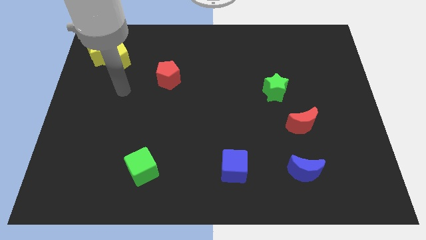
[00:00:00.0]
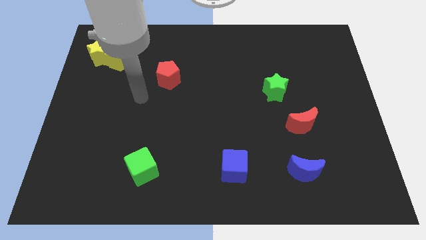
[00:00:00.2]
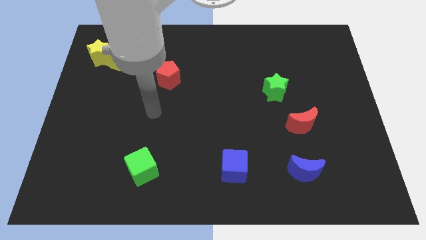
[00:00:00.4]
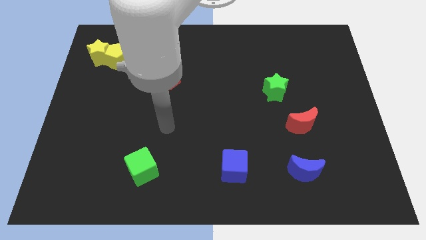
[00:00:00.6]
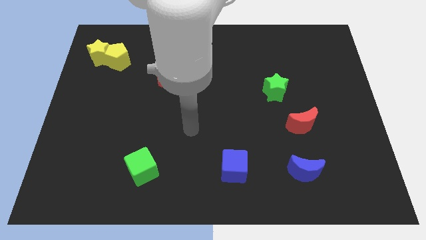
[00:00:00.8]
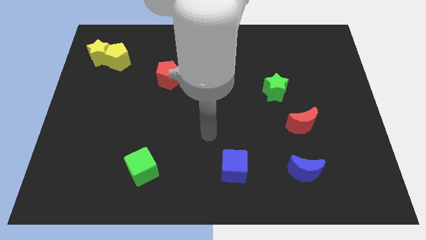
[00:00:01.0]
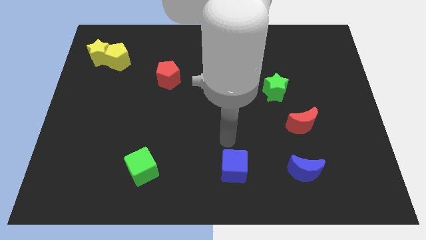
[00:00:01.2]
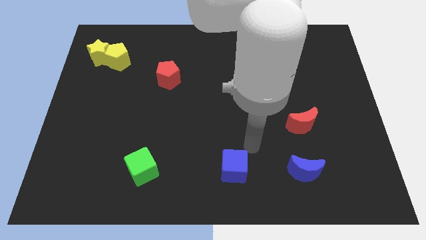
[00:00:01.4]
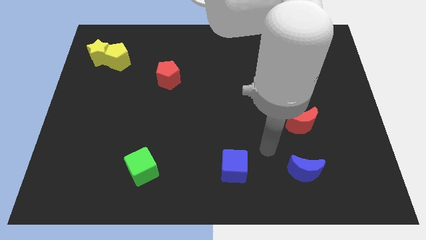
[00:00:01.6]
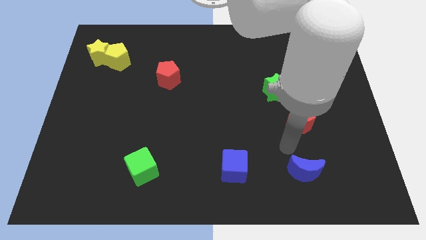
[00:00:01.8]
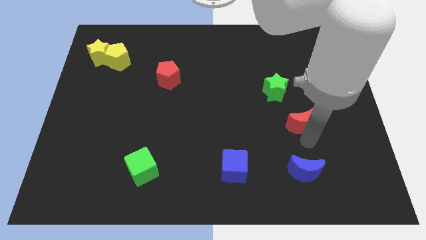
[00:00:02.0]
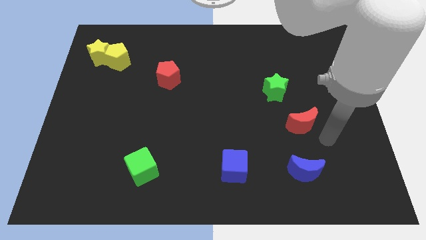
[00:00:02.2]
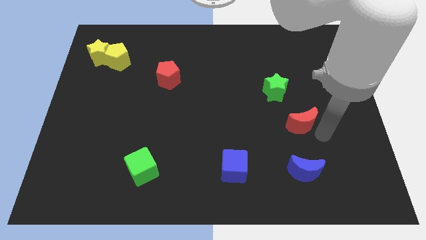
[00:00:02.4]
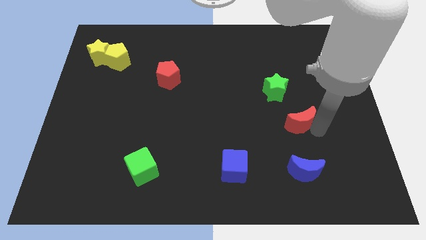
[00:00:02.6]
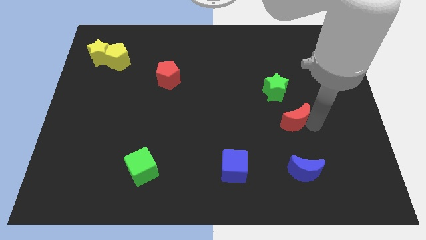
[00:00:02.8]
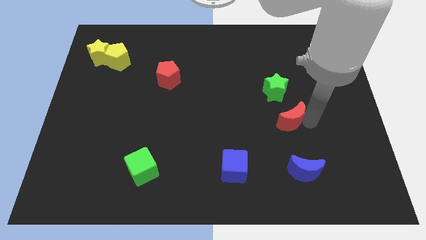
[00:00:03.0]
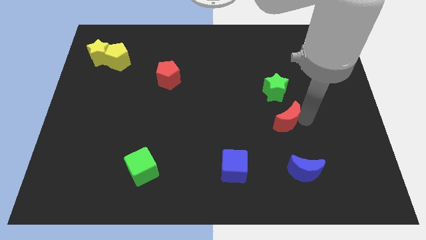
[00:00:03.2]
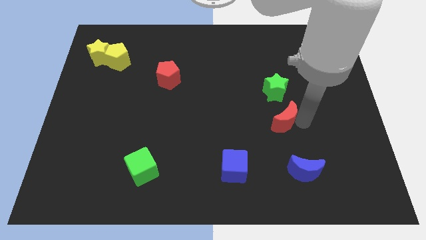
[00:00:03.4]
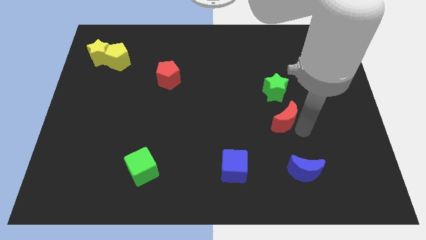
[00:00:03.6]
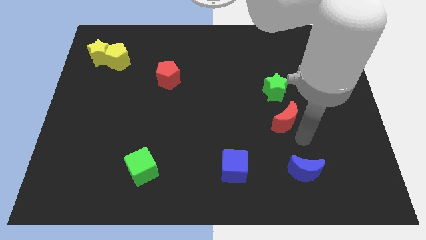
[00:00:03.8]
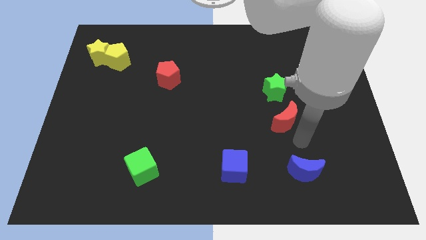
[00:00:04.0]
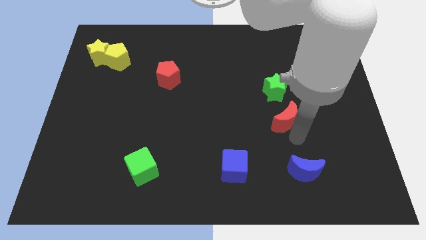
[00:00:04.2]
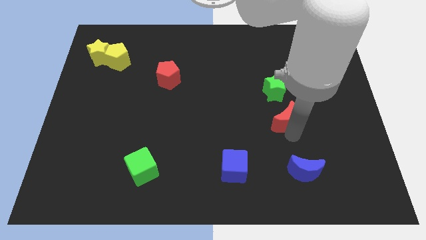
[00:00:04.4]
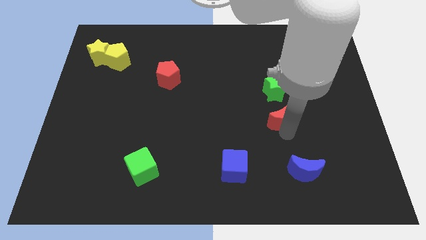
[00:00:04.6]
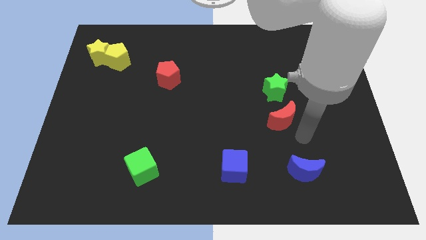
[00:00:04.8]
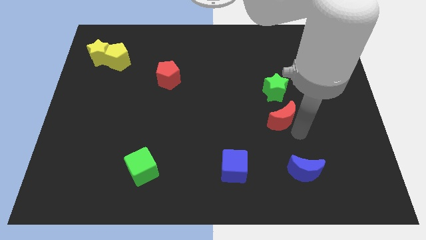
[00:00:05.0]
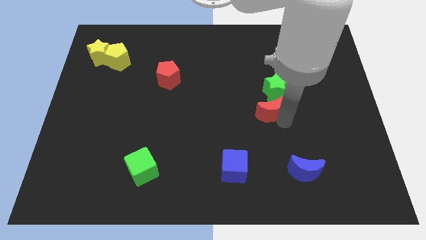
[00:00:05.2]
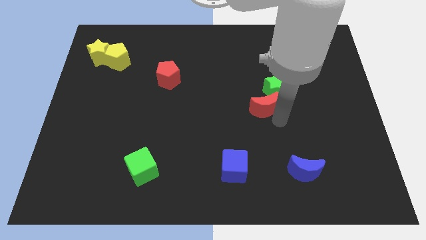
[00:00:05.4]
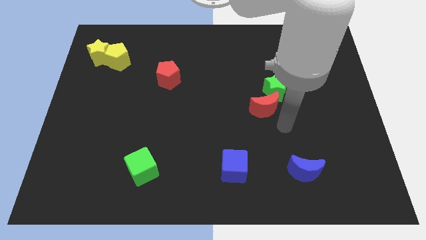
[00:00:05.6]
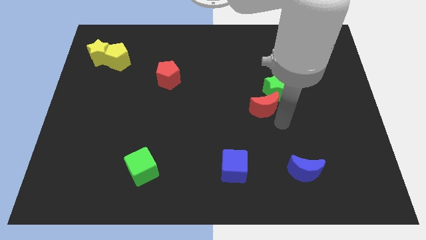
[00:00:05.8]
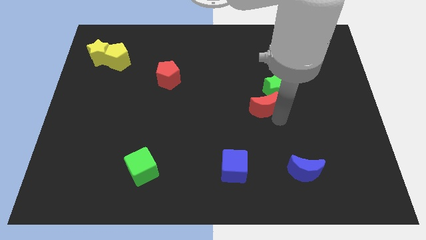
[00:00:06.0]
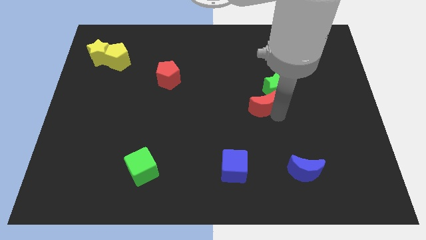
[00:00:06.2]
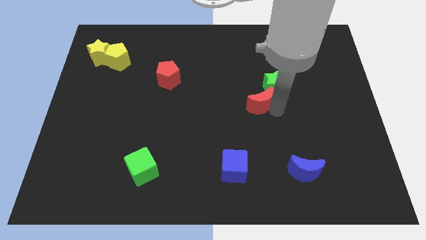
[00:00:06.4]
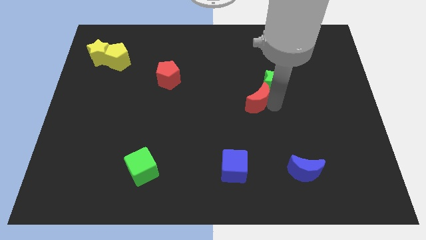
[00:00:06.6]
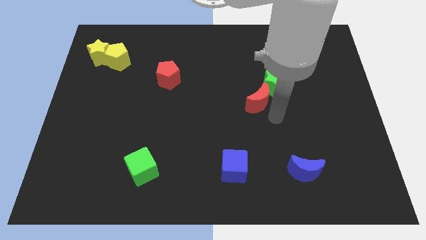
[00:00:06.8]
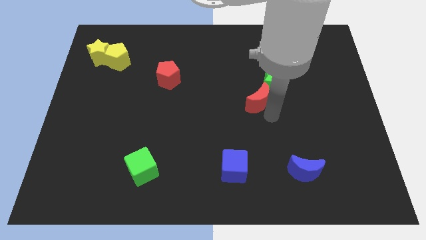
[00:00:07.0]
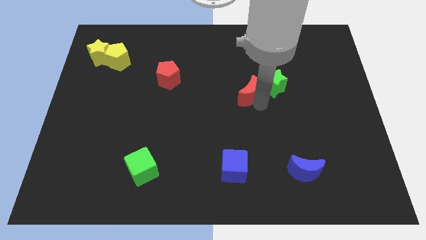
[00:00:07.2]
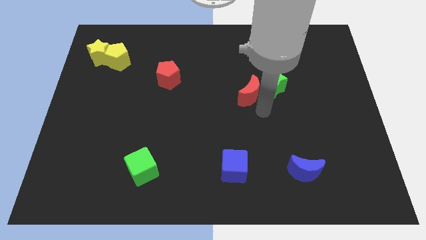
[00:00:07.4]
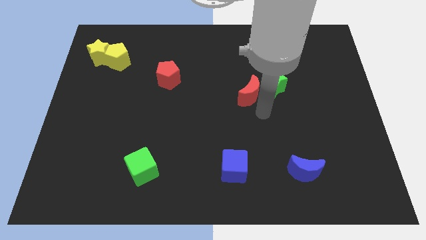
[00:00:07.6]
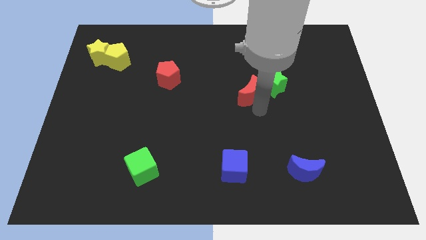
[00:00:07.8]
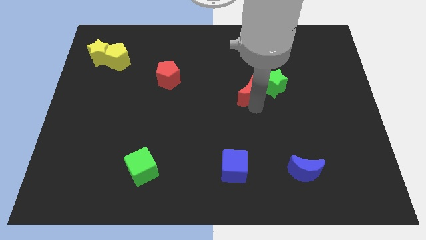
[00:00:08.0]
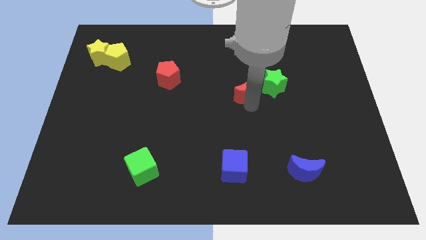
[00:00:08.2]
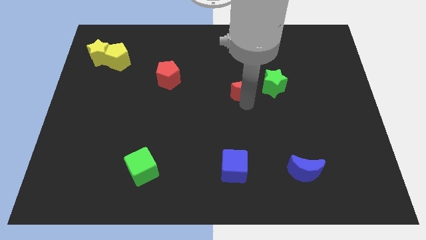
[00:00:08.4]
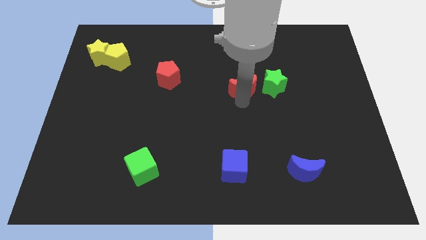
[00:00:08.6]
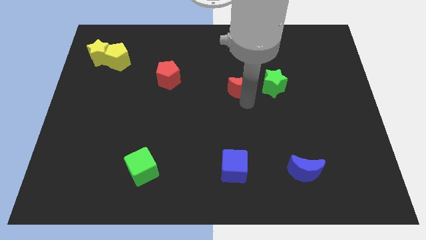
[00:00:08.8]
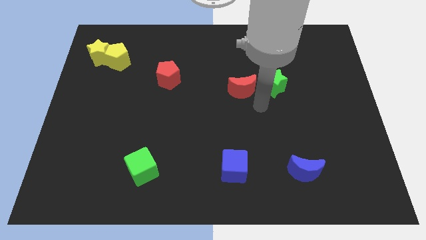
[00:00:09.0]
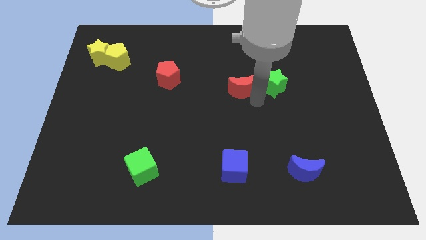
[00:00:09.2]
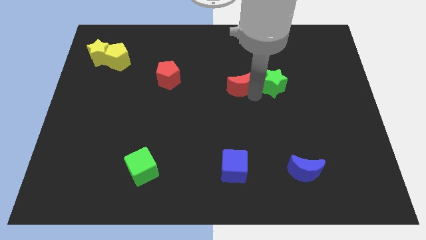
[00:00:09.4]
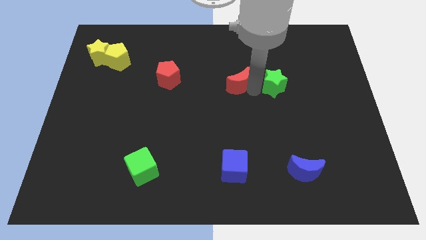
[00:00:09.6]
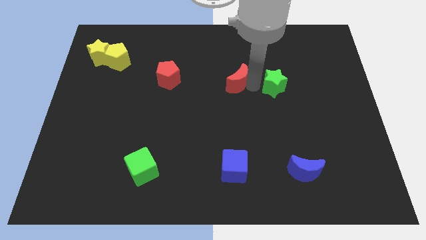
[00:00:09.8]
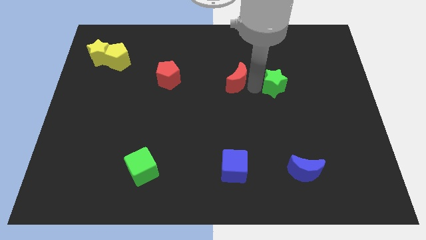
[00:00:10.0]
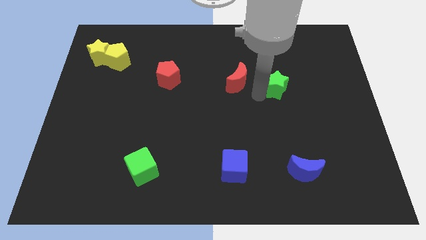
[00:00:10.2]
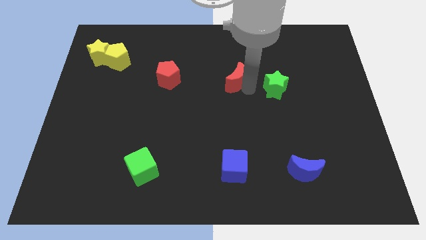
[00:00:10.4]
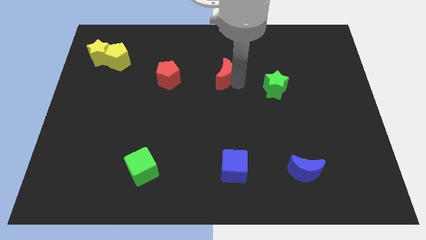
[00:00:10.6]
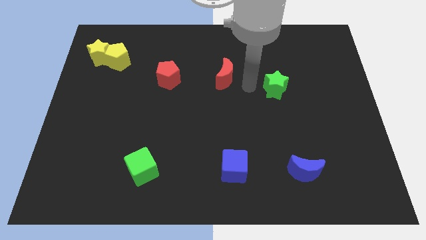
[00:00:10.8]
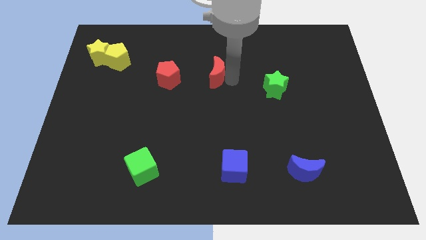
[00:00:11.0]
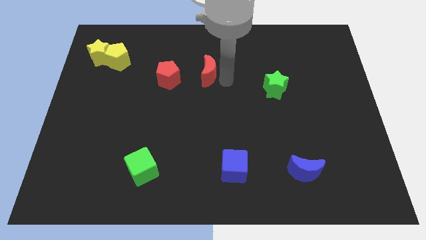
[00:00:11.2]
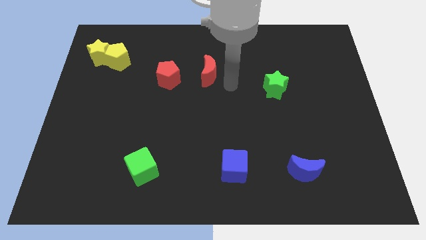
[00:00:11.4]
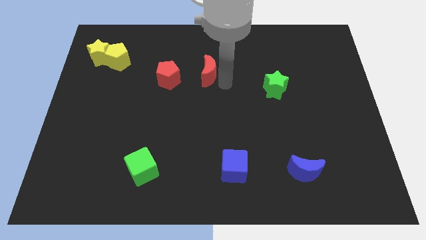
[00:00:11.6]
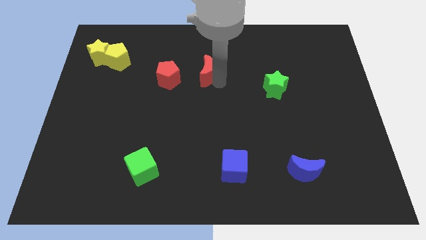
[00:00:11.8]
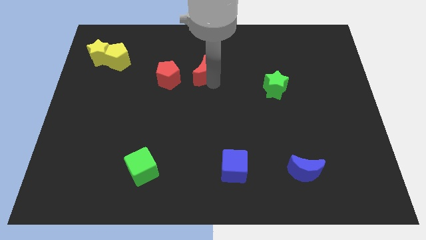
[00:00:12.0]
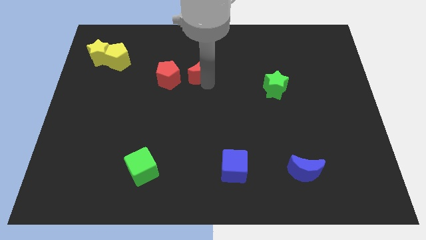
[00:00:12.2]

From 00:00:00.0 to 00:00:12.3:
put the red moon diagonally up and to the right of the red pentagon
